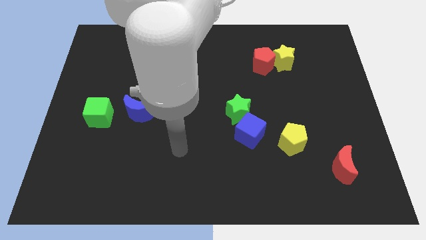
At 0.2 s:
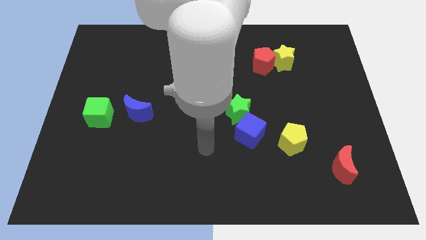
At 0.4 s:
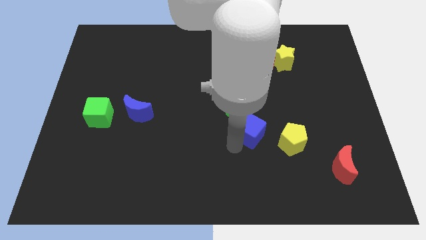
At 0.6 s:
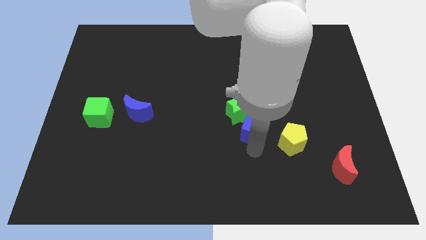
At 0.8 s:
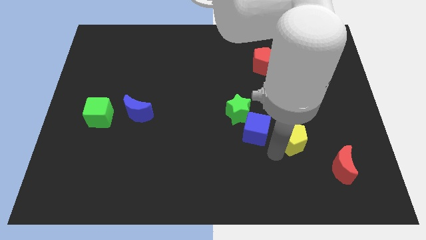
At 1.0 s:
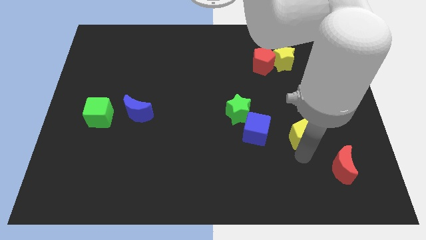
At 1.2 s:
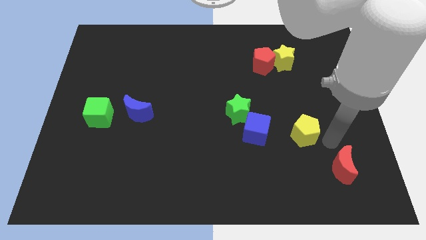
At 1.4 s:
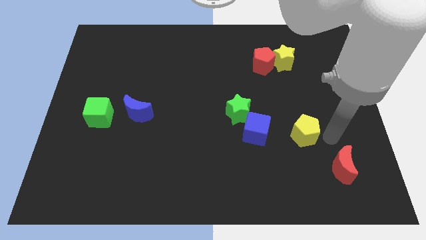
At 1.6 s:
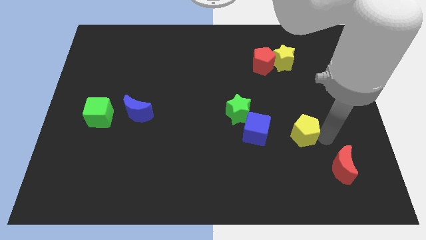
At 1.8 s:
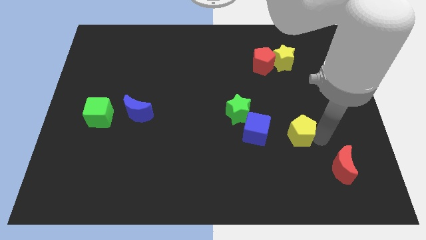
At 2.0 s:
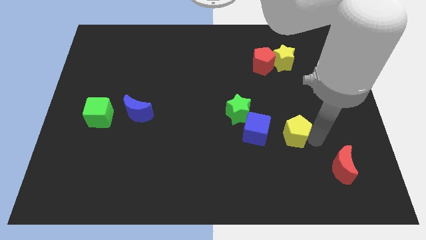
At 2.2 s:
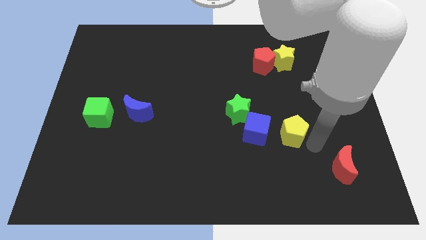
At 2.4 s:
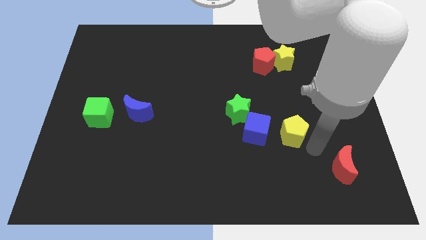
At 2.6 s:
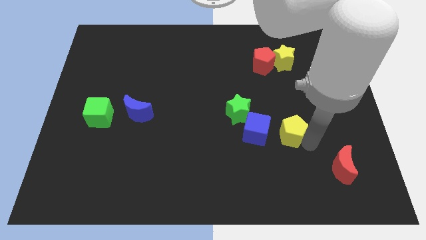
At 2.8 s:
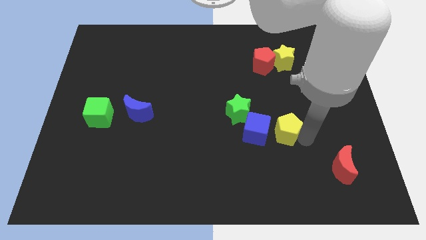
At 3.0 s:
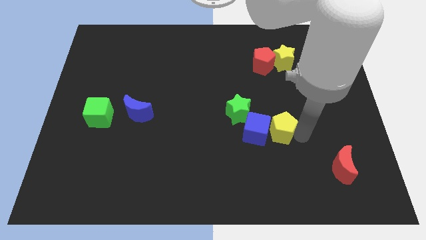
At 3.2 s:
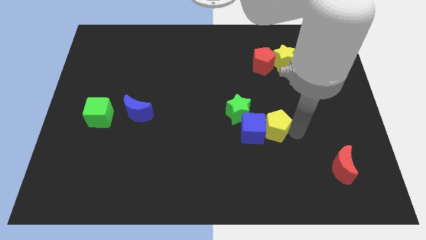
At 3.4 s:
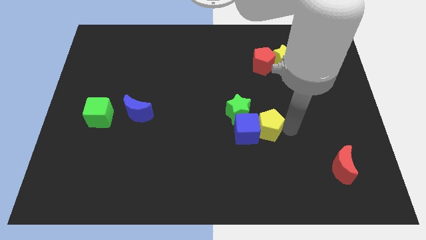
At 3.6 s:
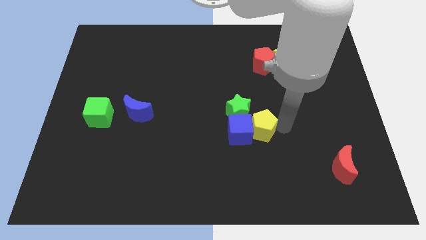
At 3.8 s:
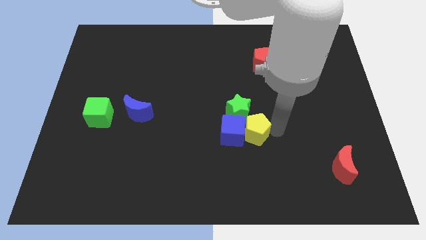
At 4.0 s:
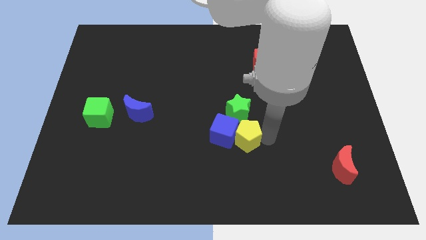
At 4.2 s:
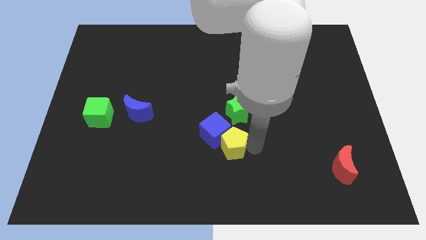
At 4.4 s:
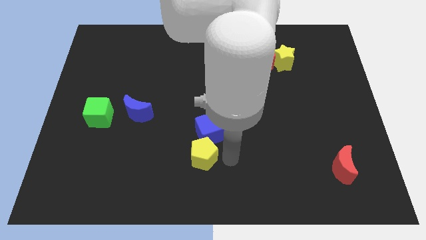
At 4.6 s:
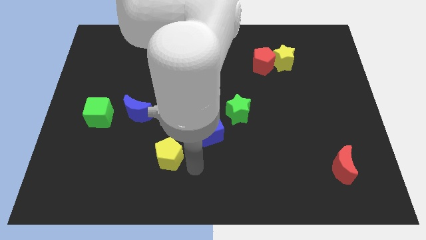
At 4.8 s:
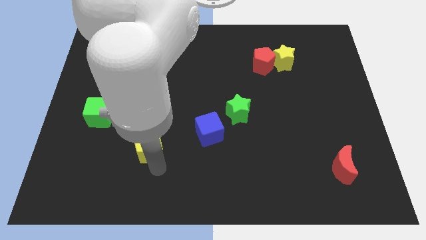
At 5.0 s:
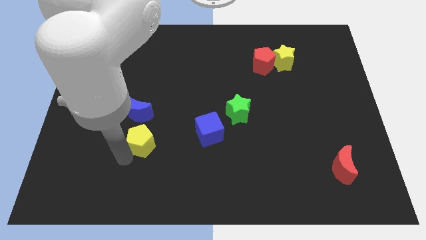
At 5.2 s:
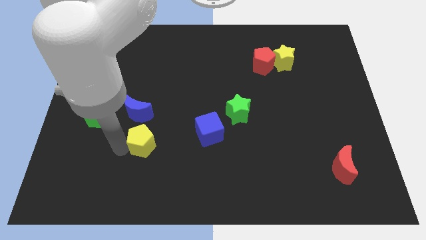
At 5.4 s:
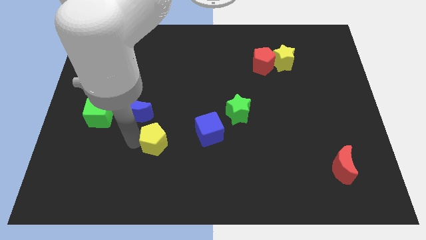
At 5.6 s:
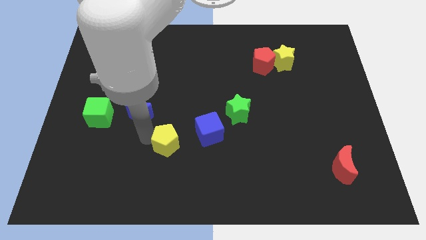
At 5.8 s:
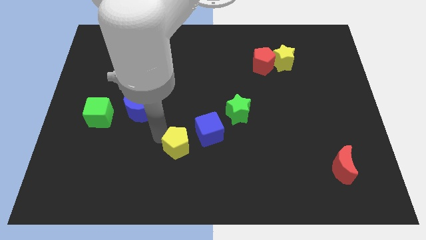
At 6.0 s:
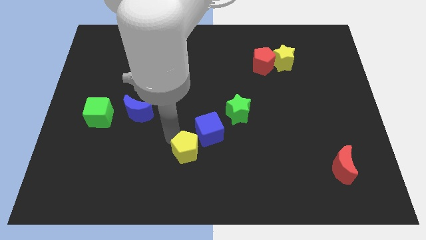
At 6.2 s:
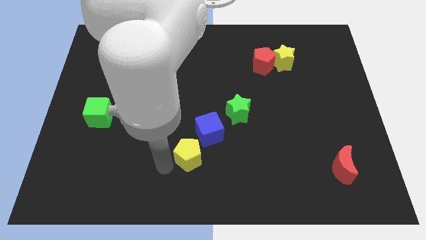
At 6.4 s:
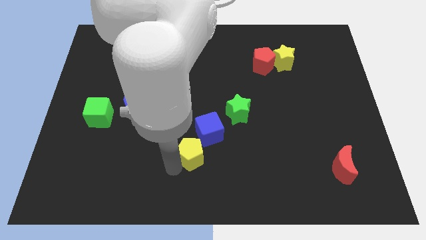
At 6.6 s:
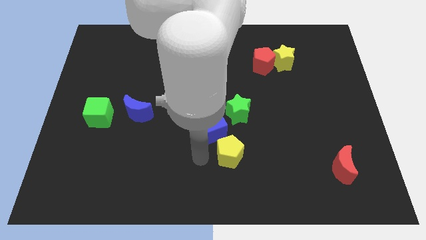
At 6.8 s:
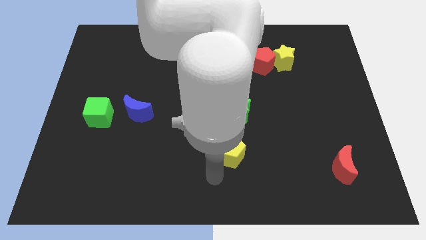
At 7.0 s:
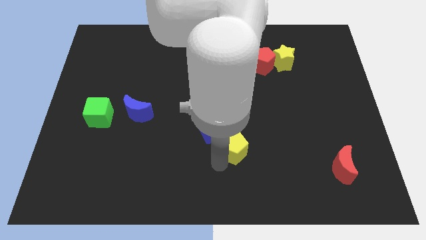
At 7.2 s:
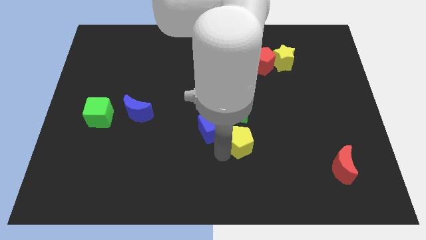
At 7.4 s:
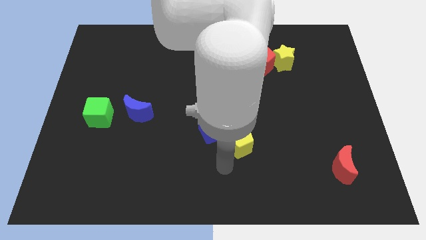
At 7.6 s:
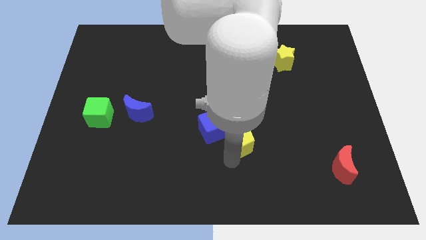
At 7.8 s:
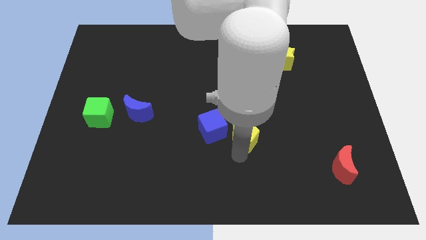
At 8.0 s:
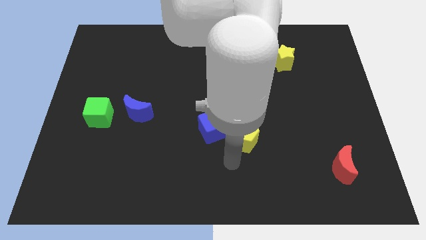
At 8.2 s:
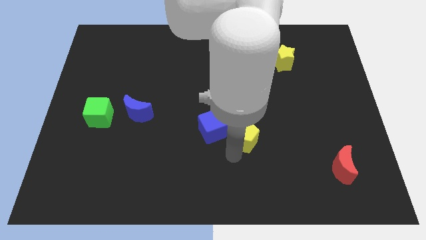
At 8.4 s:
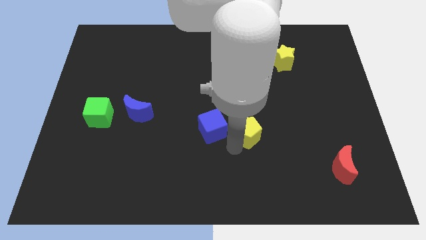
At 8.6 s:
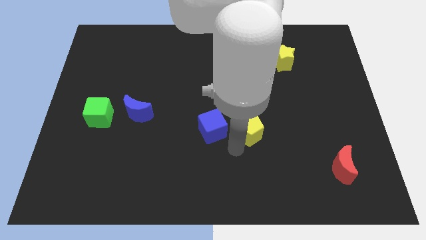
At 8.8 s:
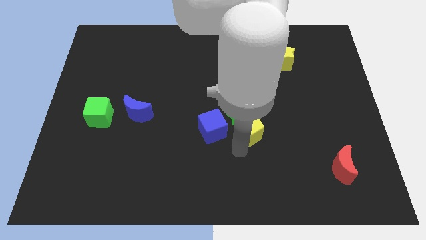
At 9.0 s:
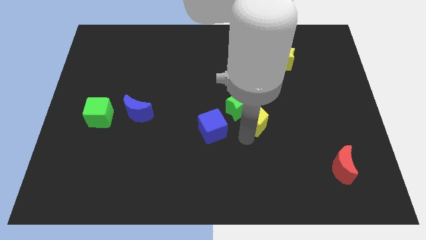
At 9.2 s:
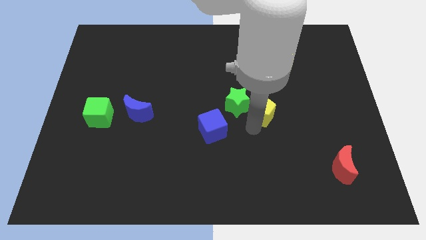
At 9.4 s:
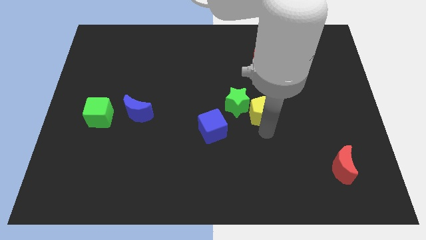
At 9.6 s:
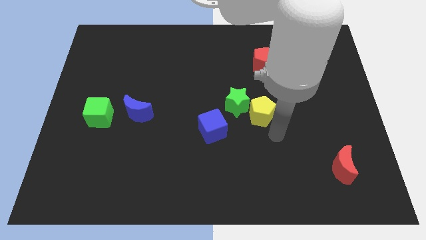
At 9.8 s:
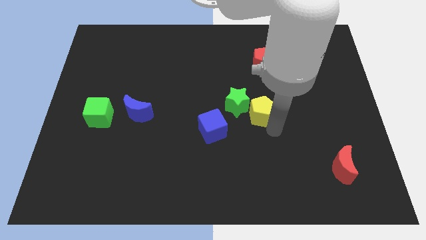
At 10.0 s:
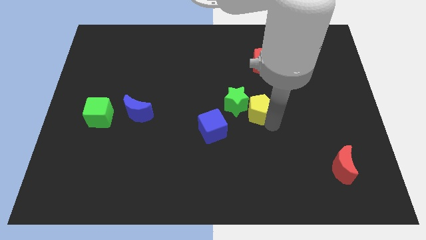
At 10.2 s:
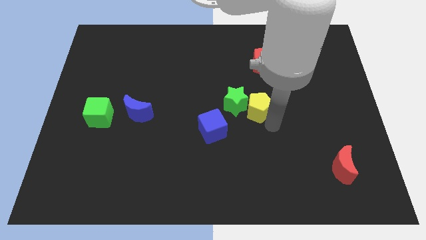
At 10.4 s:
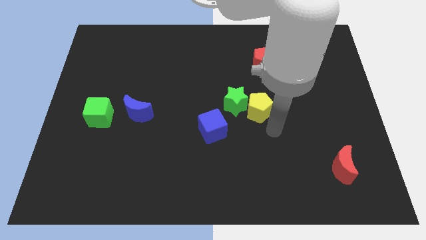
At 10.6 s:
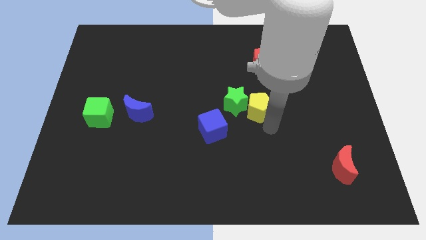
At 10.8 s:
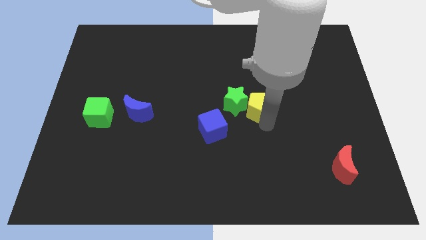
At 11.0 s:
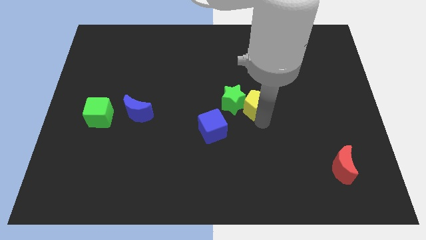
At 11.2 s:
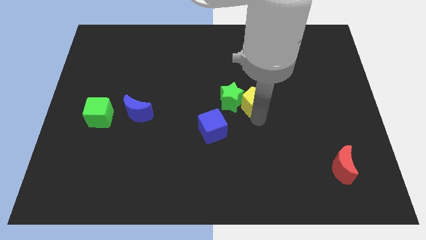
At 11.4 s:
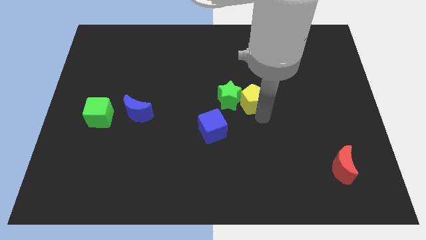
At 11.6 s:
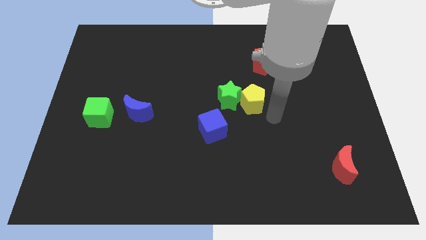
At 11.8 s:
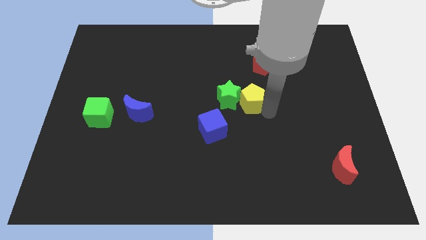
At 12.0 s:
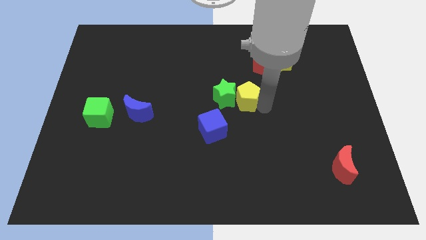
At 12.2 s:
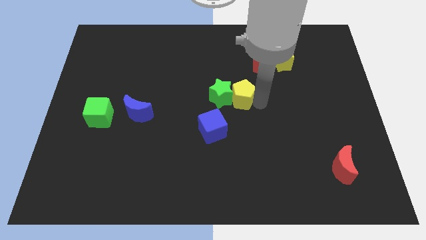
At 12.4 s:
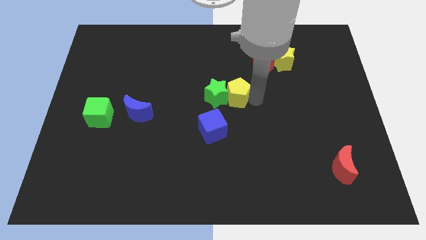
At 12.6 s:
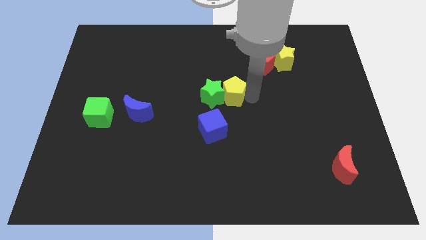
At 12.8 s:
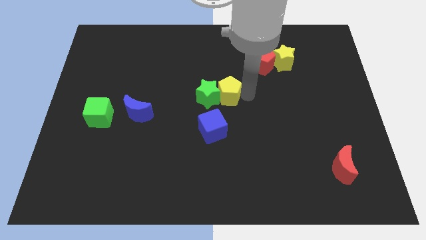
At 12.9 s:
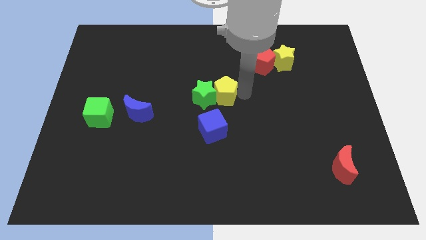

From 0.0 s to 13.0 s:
push the yellow pentagon diagonally up and left

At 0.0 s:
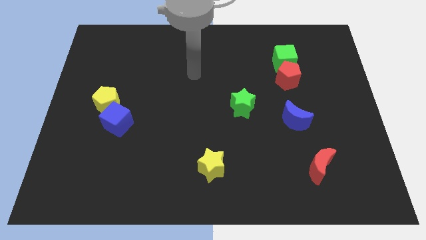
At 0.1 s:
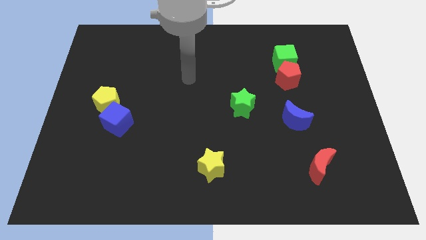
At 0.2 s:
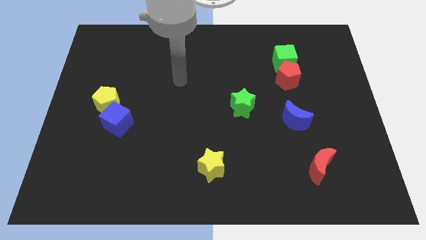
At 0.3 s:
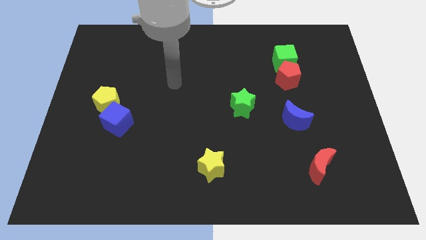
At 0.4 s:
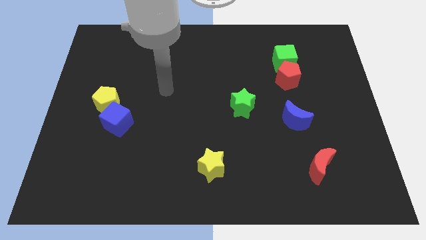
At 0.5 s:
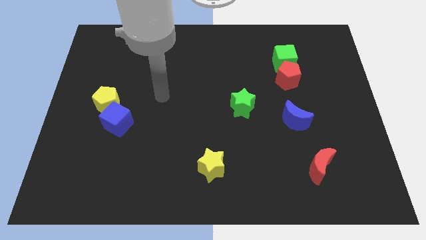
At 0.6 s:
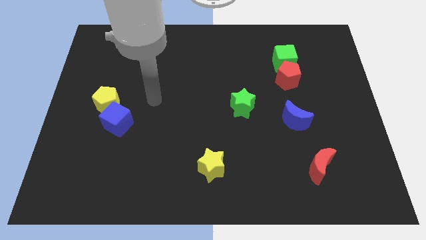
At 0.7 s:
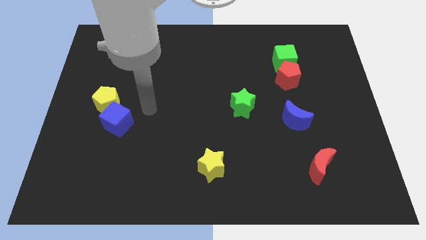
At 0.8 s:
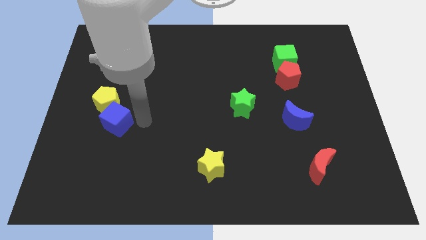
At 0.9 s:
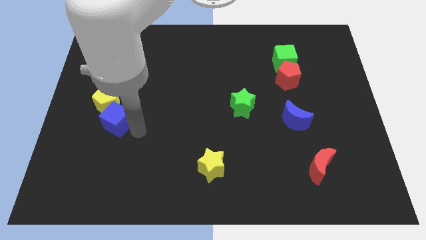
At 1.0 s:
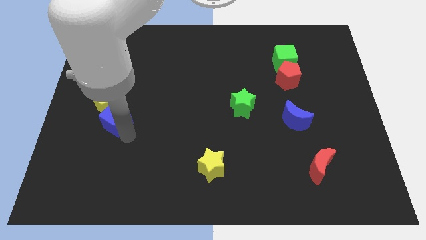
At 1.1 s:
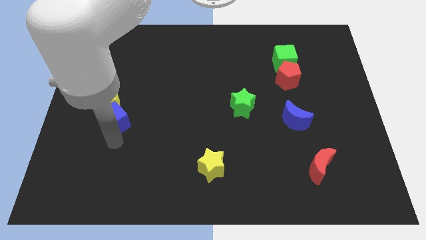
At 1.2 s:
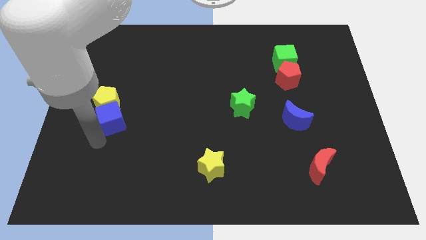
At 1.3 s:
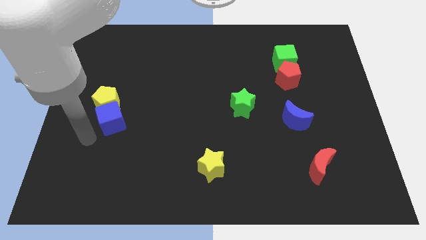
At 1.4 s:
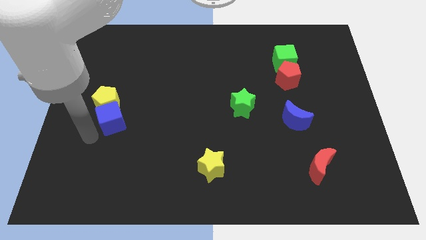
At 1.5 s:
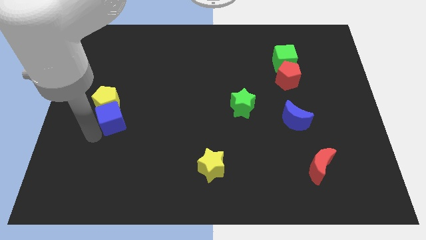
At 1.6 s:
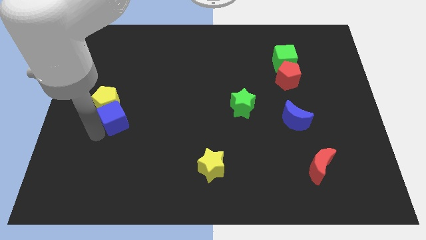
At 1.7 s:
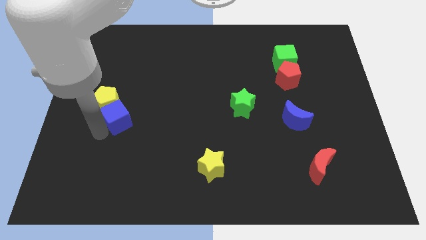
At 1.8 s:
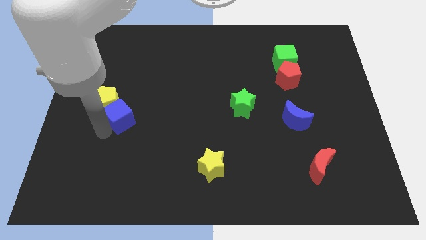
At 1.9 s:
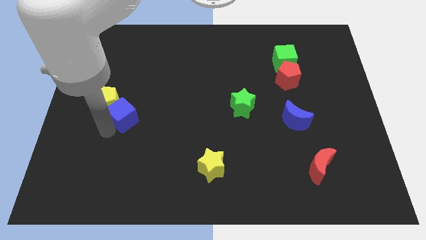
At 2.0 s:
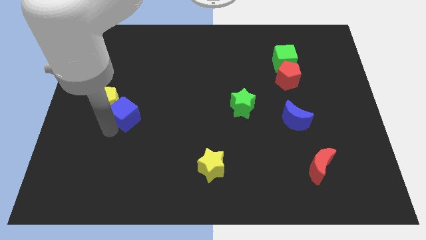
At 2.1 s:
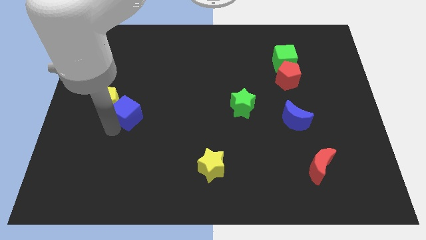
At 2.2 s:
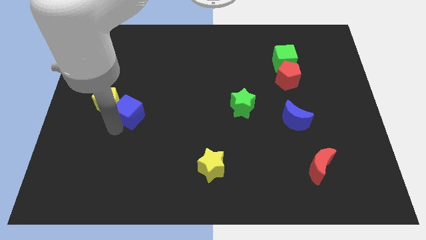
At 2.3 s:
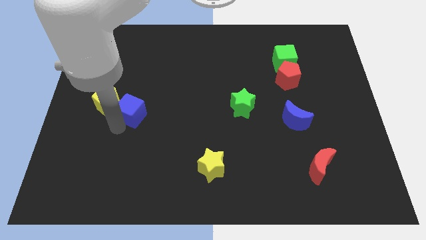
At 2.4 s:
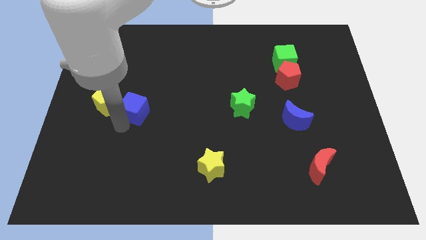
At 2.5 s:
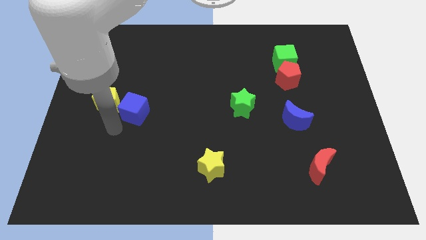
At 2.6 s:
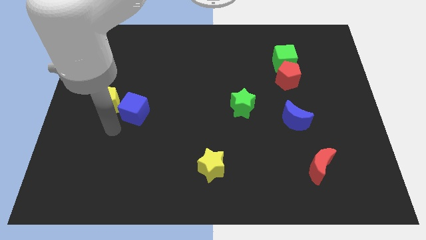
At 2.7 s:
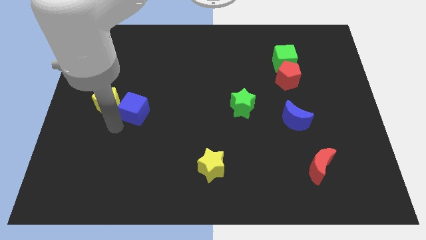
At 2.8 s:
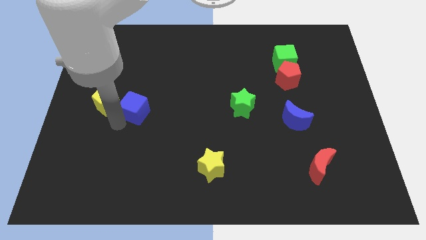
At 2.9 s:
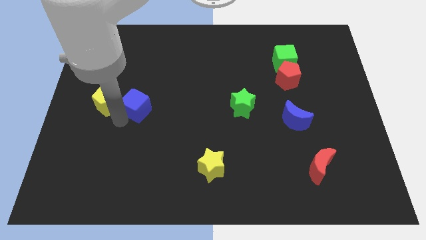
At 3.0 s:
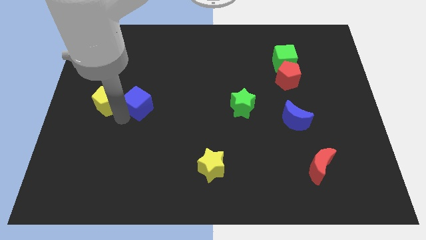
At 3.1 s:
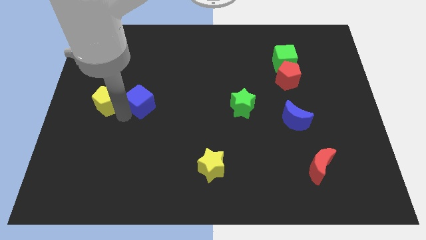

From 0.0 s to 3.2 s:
slightly push the blue cube diagonally up and right
